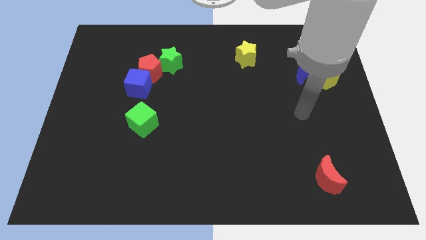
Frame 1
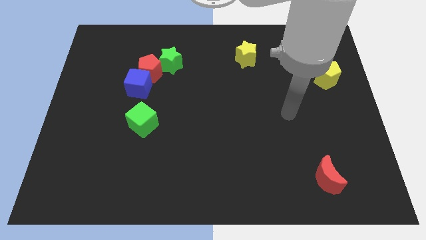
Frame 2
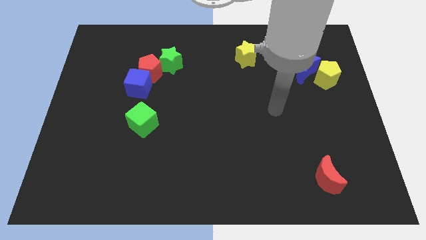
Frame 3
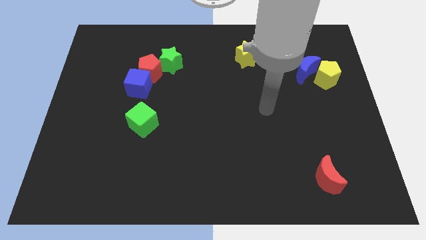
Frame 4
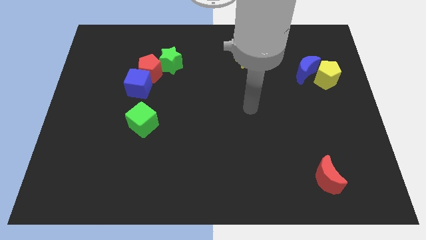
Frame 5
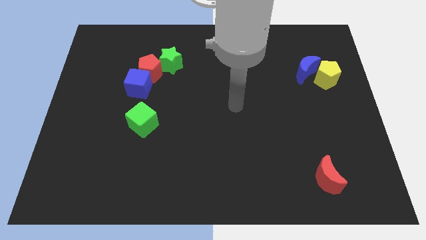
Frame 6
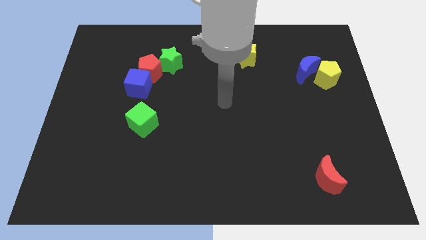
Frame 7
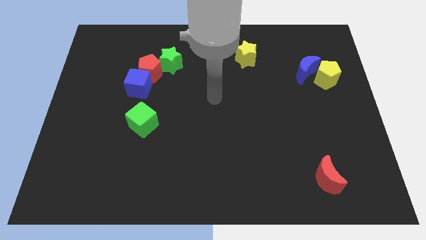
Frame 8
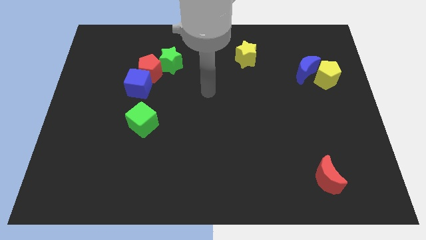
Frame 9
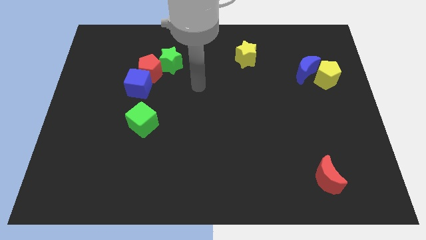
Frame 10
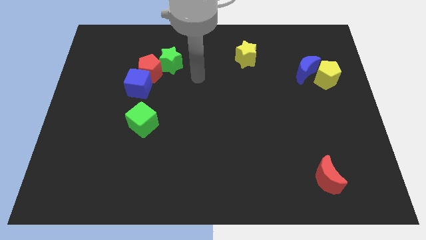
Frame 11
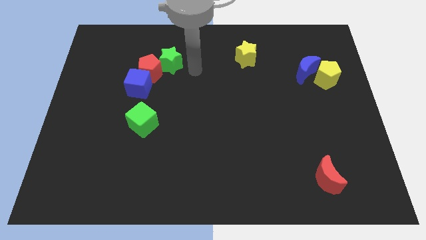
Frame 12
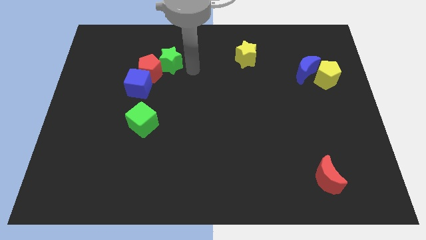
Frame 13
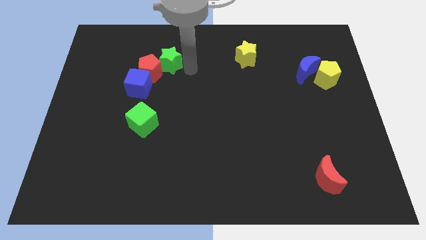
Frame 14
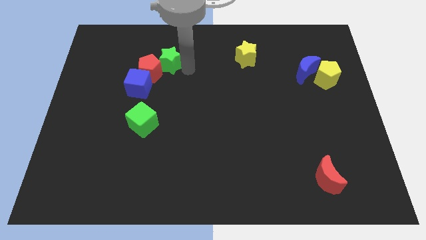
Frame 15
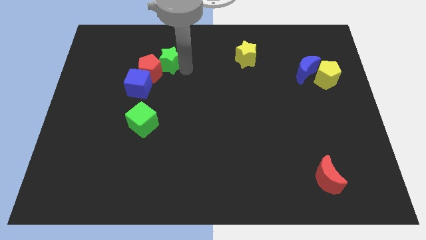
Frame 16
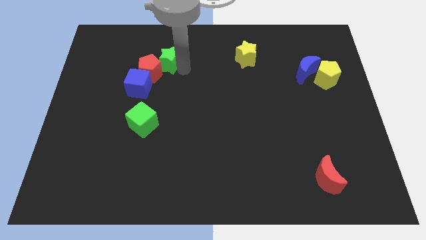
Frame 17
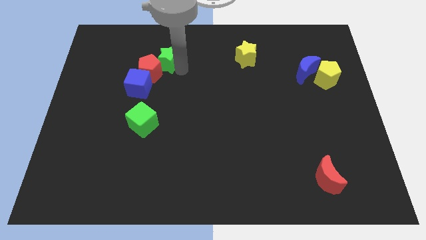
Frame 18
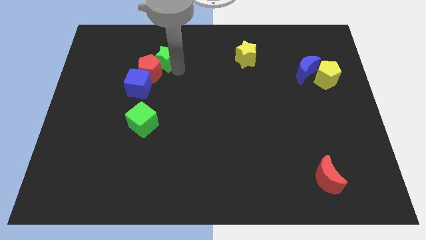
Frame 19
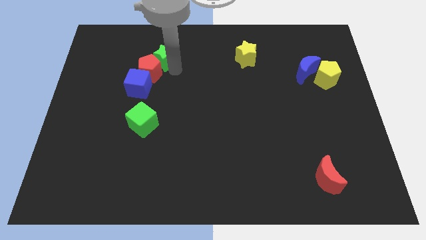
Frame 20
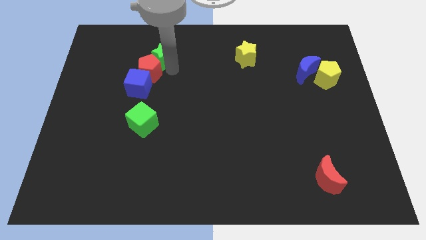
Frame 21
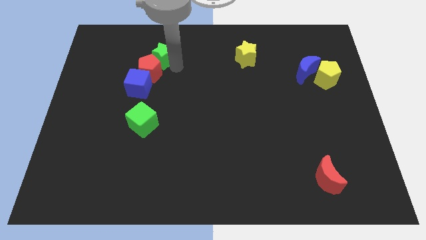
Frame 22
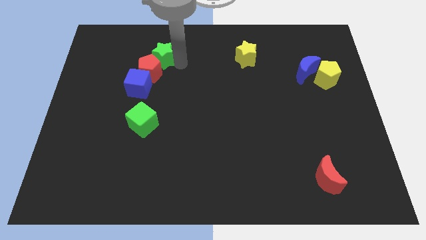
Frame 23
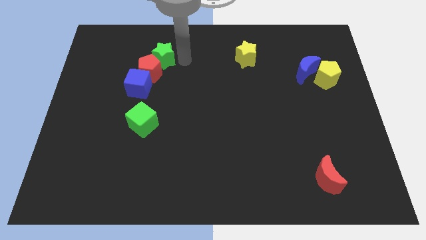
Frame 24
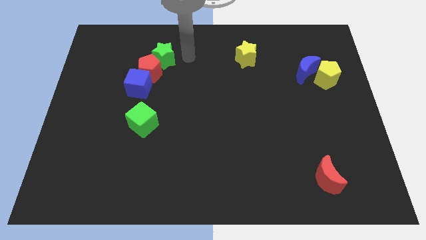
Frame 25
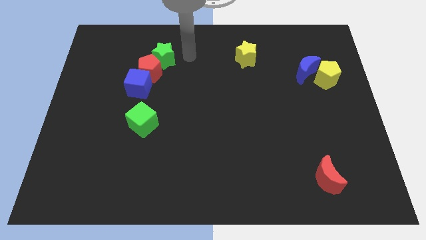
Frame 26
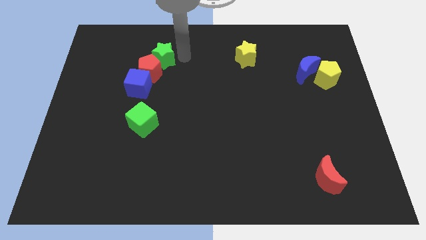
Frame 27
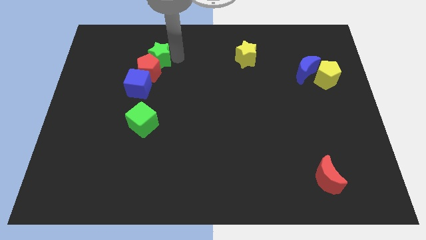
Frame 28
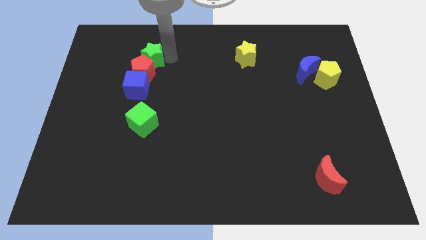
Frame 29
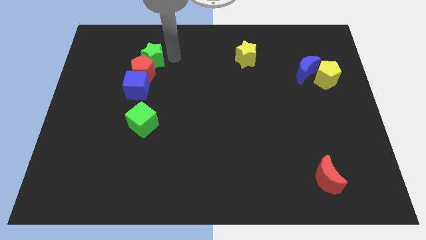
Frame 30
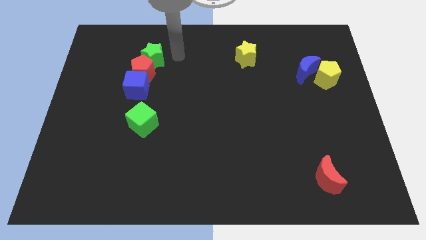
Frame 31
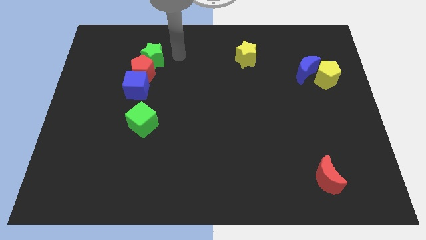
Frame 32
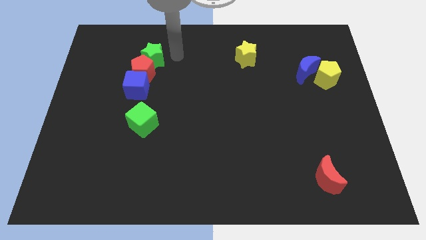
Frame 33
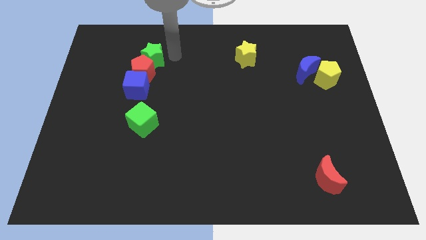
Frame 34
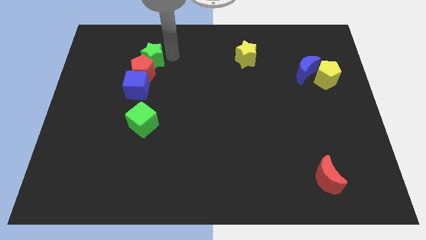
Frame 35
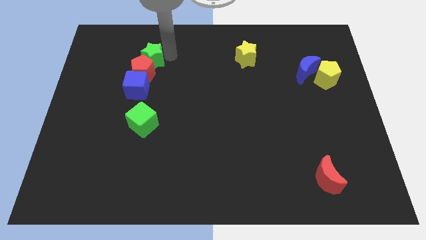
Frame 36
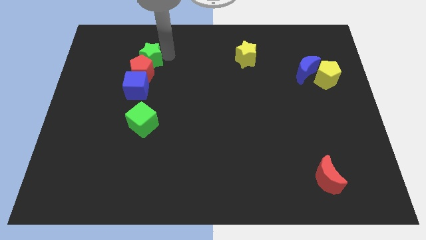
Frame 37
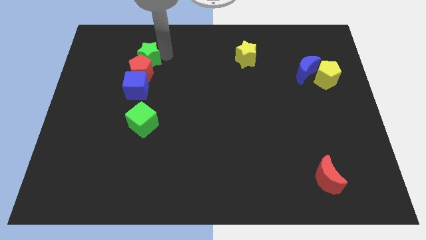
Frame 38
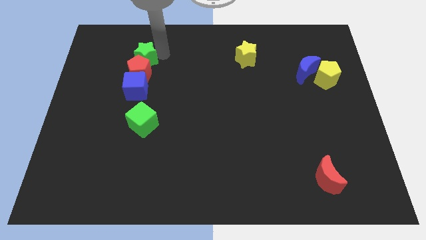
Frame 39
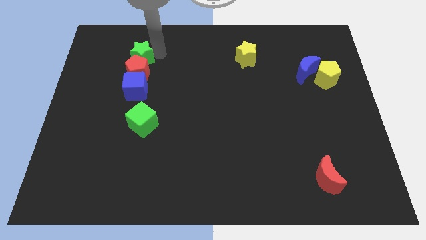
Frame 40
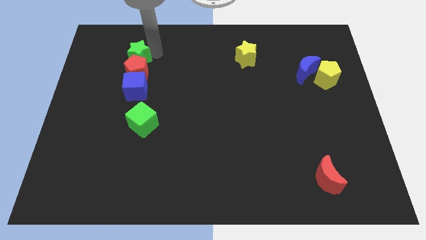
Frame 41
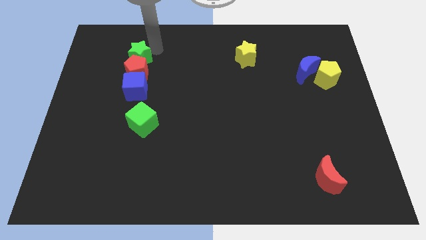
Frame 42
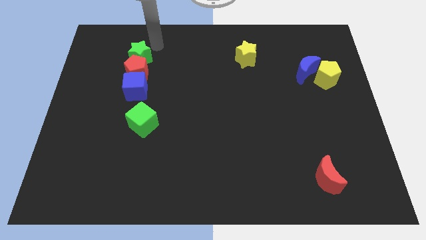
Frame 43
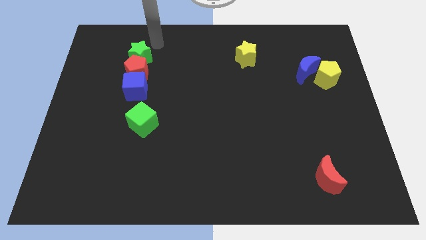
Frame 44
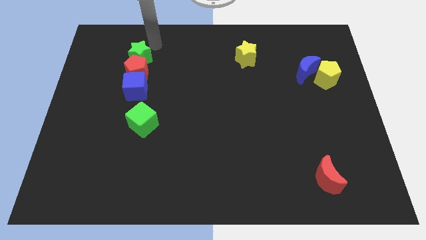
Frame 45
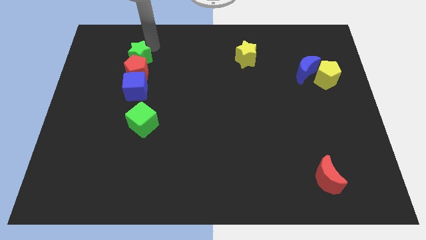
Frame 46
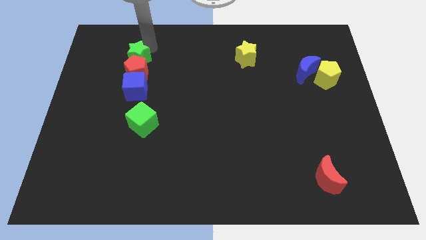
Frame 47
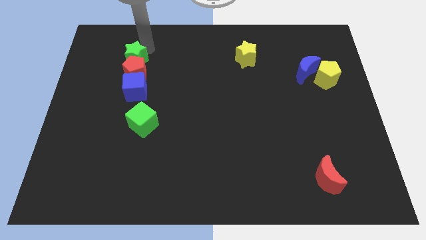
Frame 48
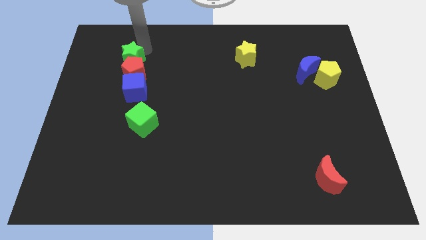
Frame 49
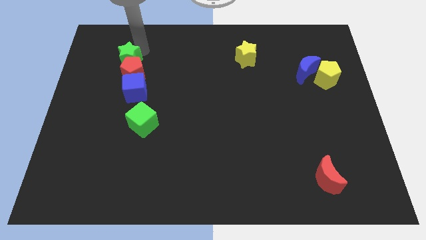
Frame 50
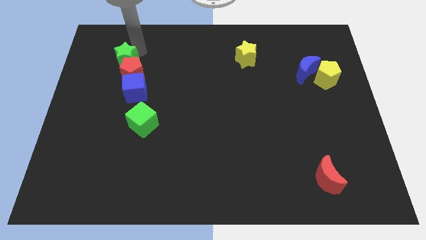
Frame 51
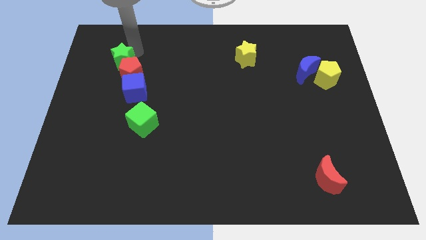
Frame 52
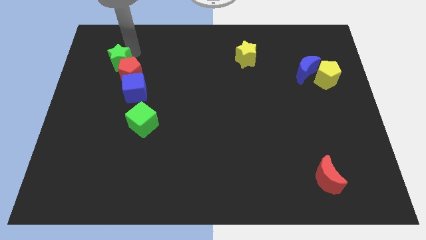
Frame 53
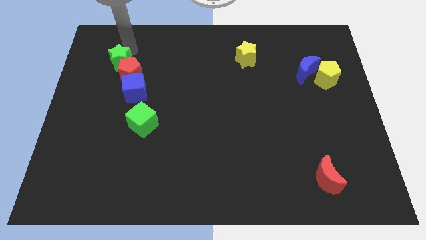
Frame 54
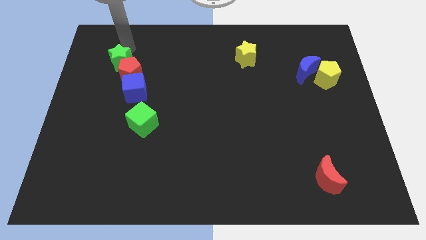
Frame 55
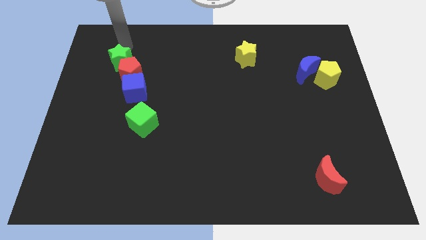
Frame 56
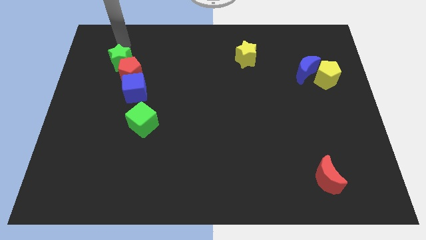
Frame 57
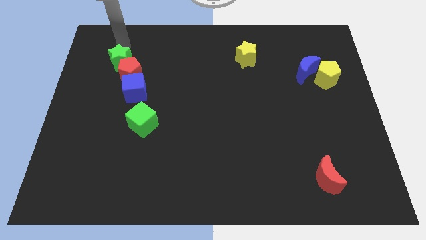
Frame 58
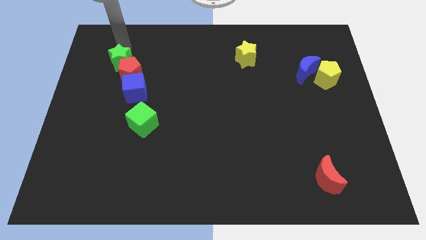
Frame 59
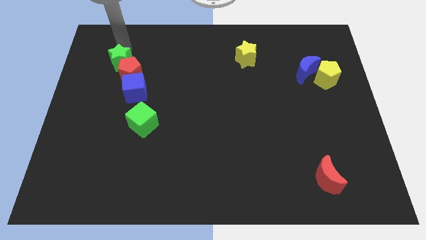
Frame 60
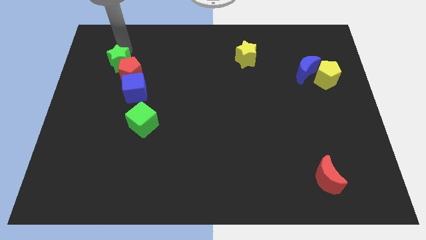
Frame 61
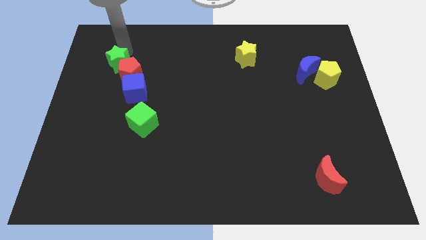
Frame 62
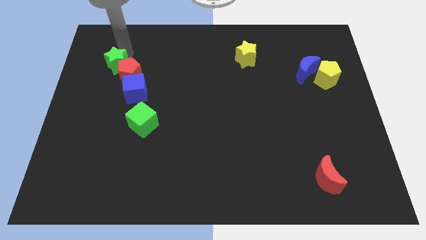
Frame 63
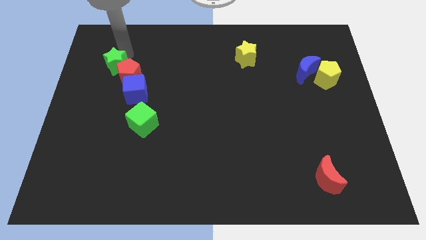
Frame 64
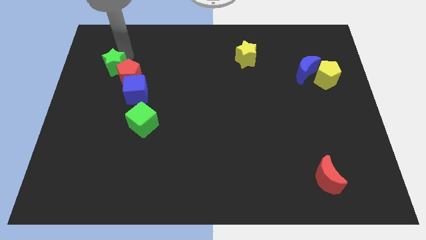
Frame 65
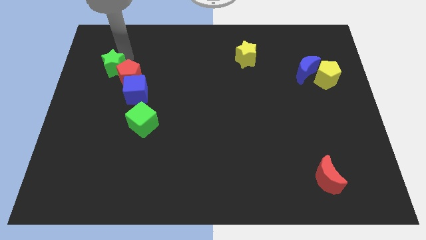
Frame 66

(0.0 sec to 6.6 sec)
slide the green star a bit downwards and then left

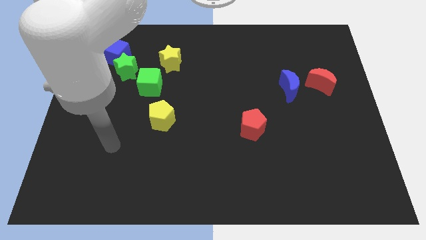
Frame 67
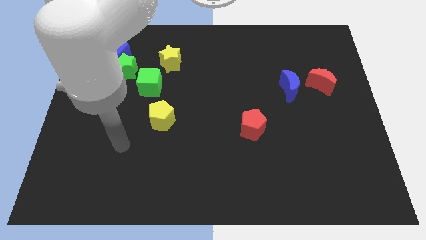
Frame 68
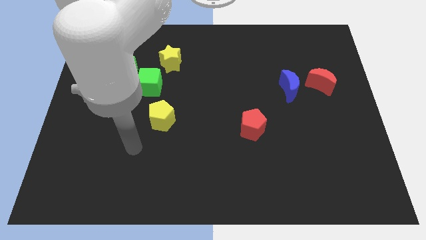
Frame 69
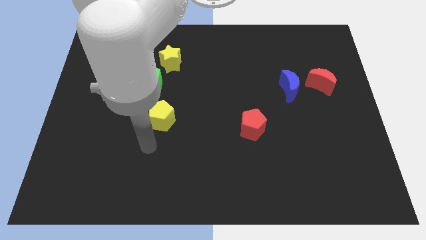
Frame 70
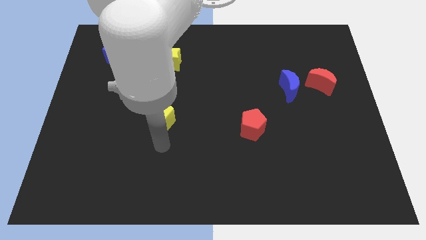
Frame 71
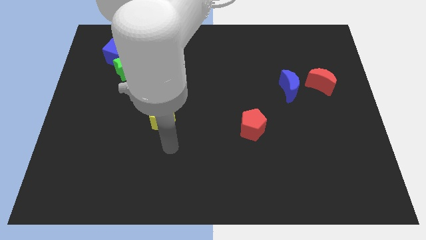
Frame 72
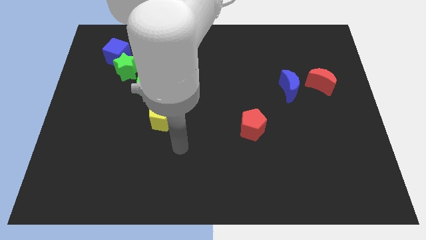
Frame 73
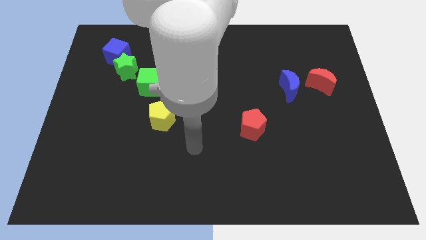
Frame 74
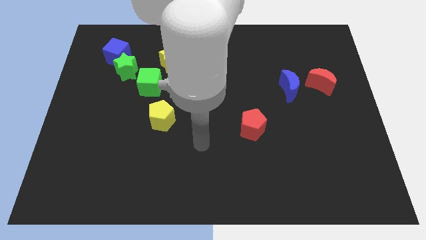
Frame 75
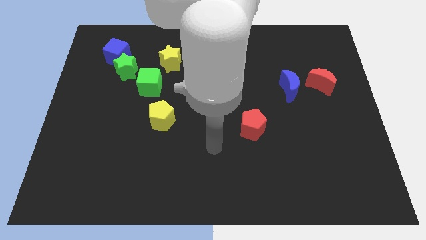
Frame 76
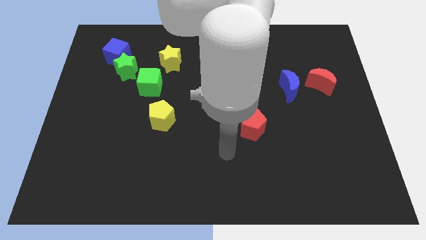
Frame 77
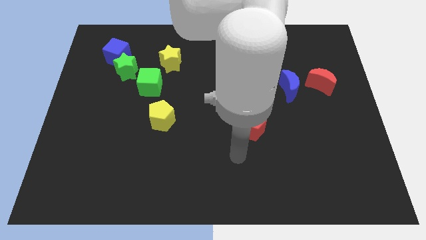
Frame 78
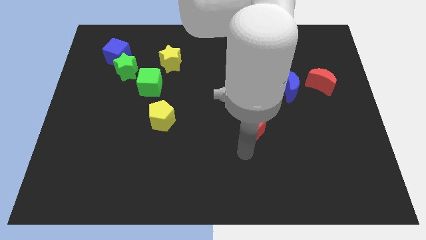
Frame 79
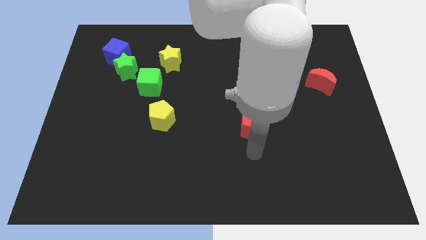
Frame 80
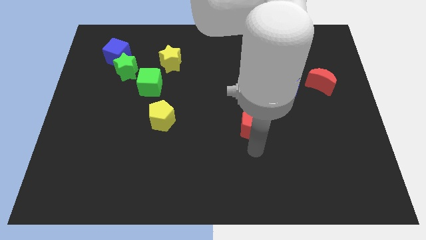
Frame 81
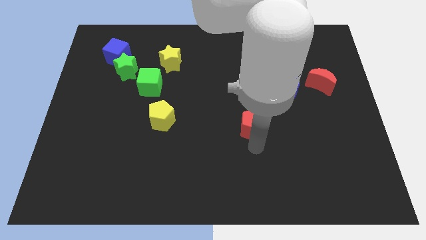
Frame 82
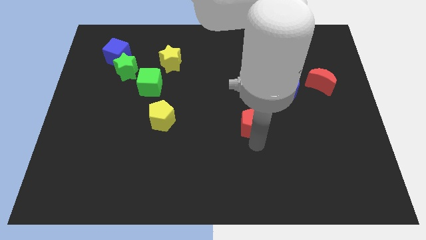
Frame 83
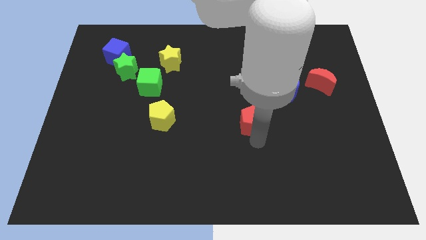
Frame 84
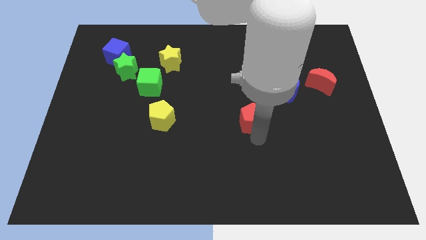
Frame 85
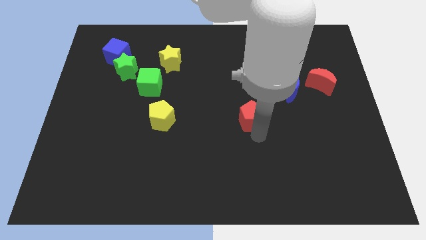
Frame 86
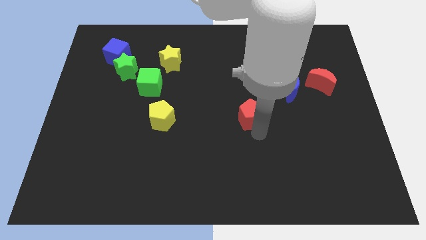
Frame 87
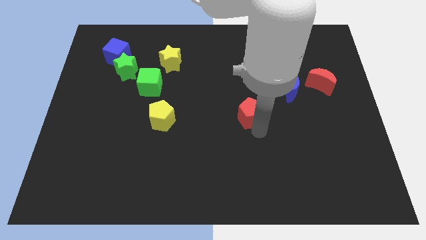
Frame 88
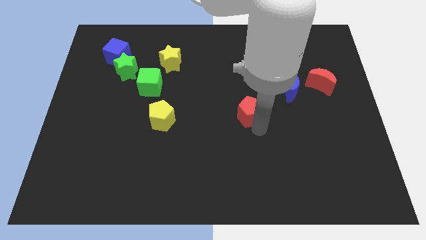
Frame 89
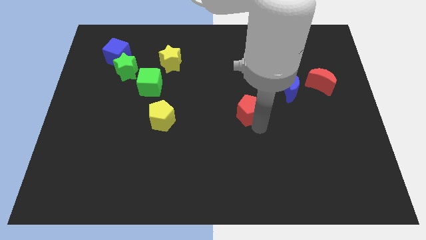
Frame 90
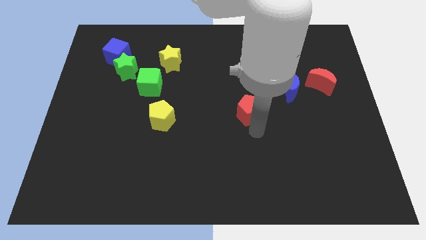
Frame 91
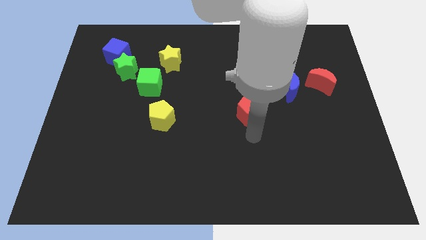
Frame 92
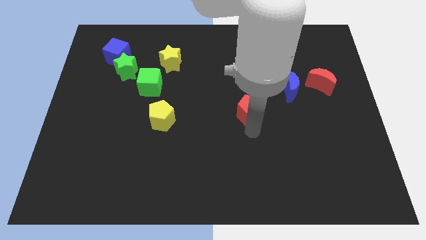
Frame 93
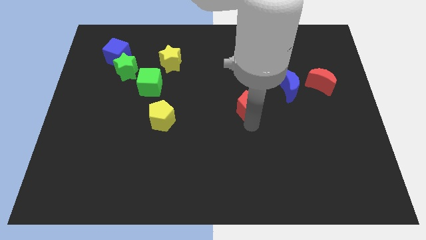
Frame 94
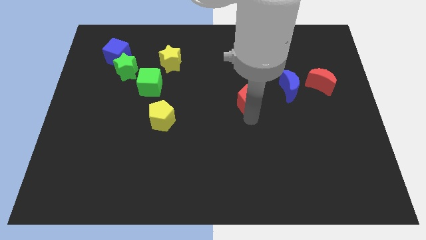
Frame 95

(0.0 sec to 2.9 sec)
slightly slide the red pentagon up
